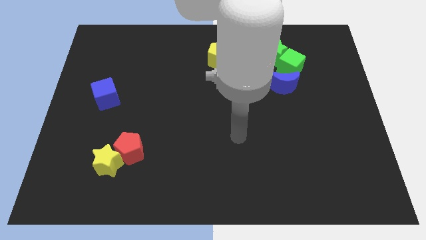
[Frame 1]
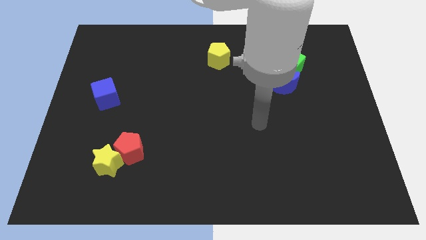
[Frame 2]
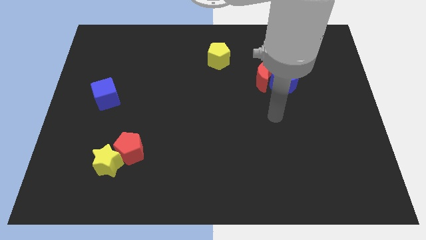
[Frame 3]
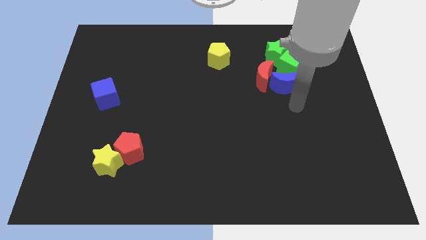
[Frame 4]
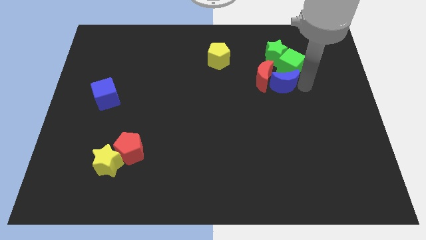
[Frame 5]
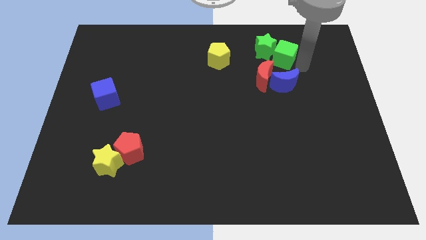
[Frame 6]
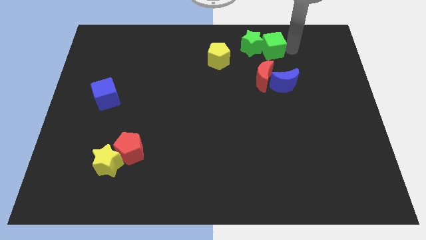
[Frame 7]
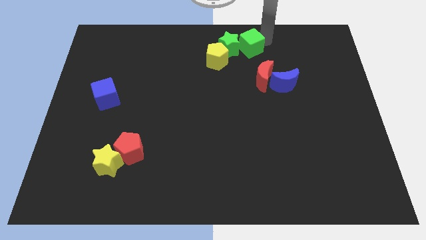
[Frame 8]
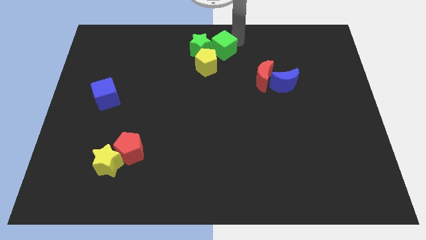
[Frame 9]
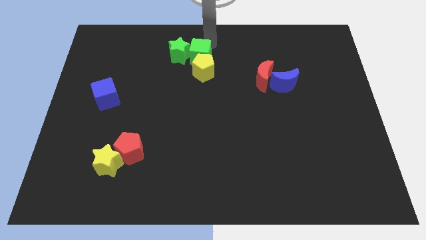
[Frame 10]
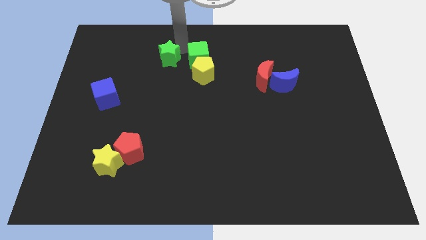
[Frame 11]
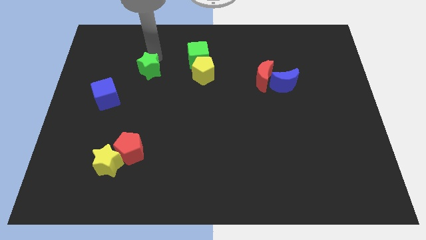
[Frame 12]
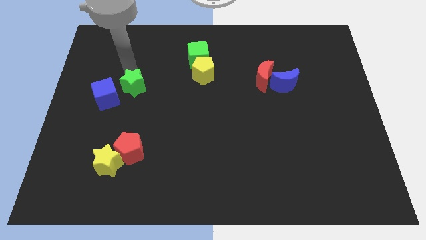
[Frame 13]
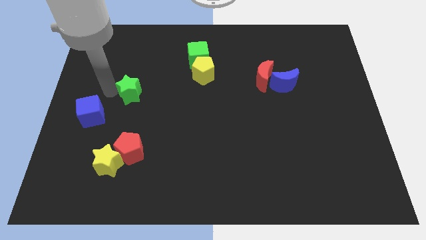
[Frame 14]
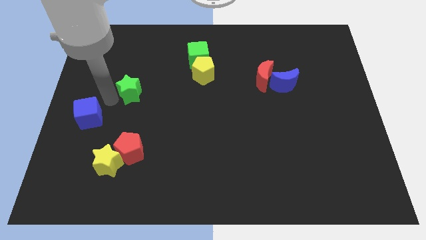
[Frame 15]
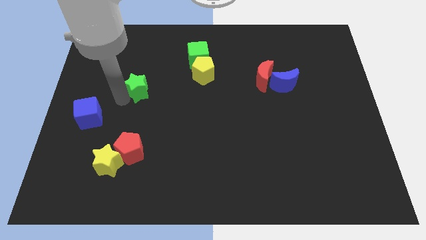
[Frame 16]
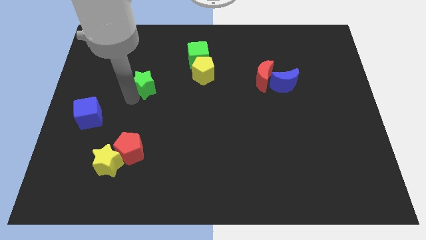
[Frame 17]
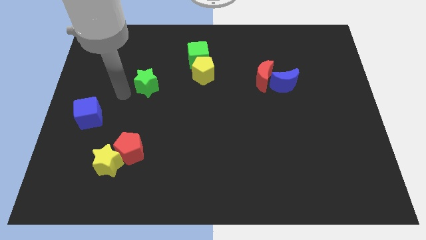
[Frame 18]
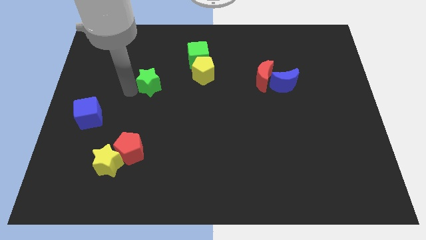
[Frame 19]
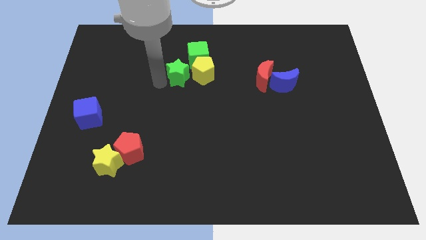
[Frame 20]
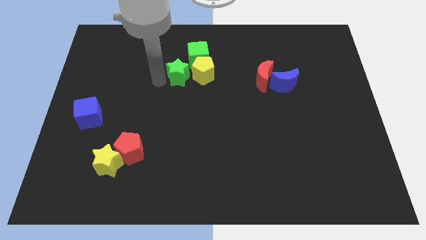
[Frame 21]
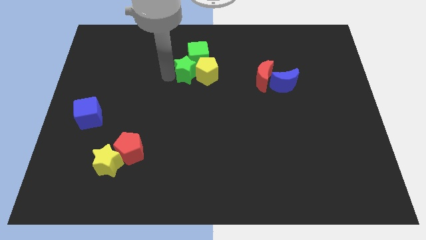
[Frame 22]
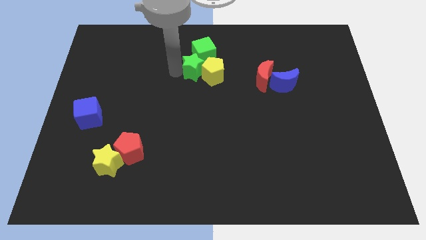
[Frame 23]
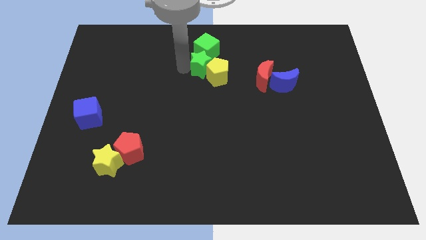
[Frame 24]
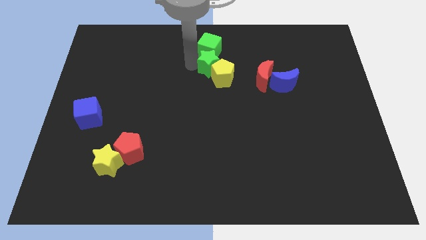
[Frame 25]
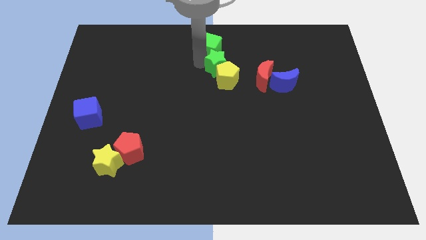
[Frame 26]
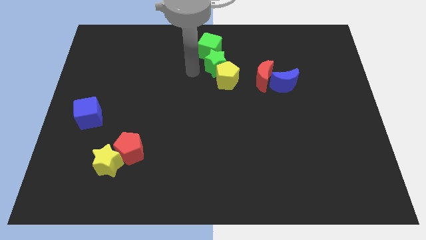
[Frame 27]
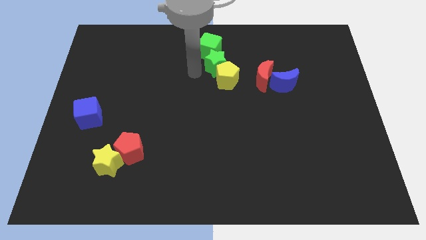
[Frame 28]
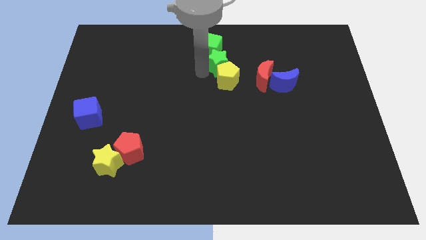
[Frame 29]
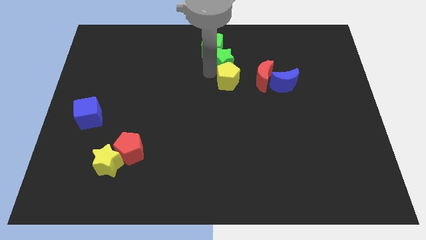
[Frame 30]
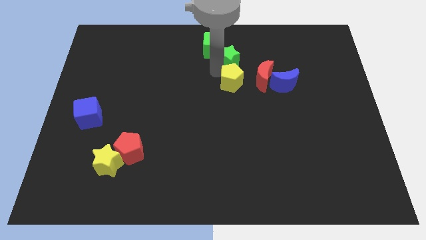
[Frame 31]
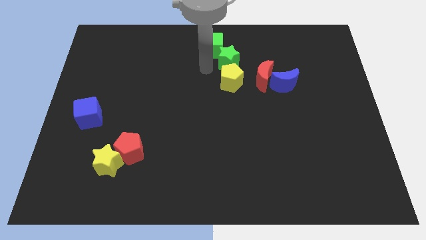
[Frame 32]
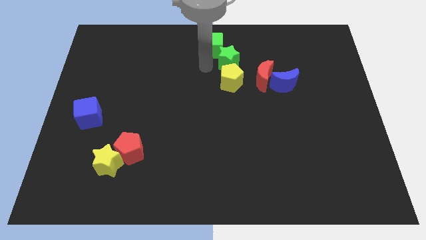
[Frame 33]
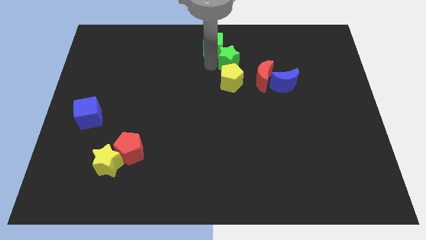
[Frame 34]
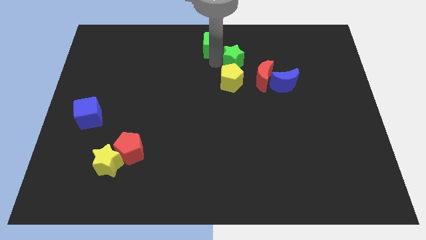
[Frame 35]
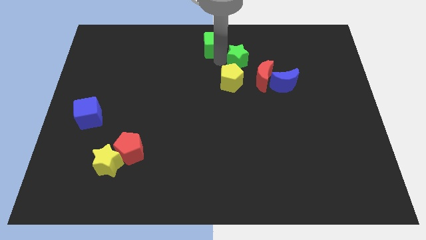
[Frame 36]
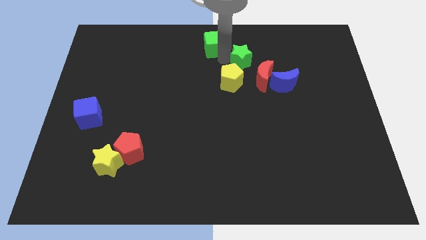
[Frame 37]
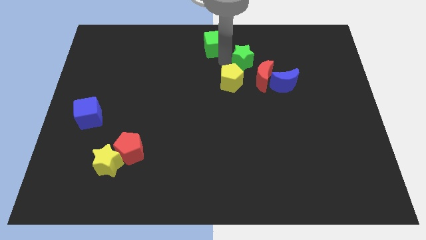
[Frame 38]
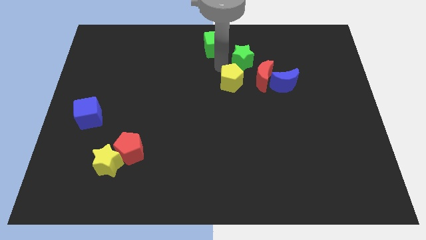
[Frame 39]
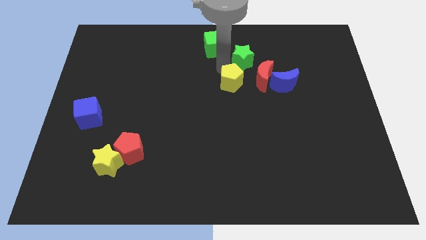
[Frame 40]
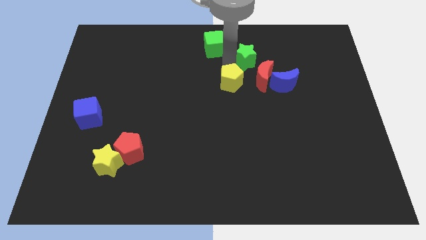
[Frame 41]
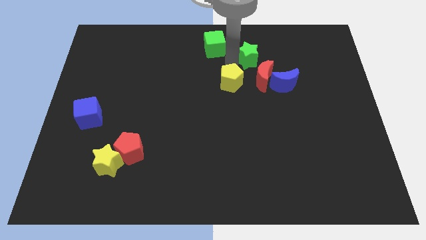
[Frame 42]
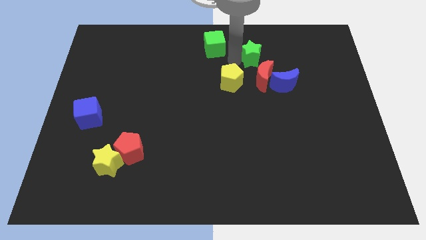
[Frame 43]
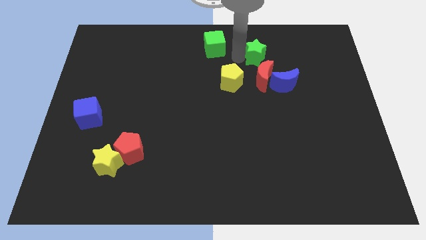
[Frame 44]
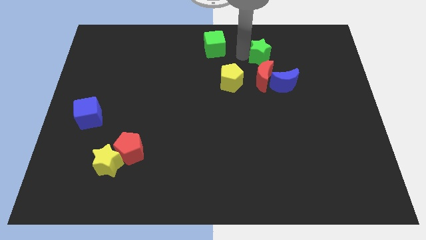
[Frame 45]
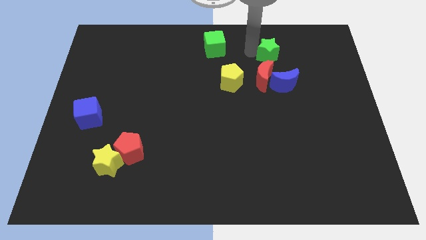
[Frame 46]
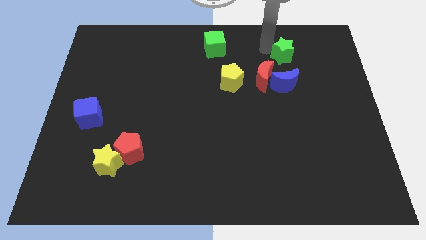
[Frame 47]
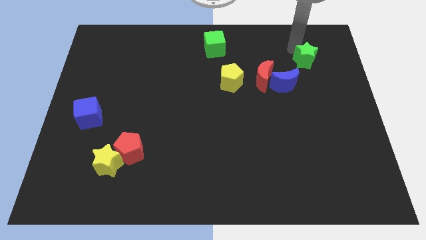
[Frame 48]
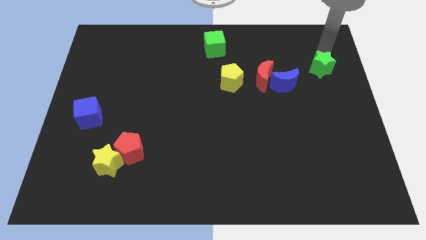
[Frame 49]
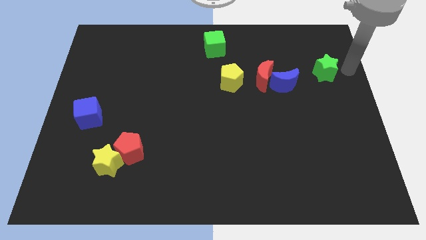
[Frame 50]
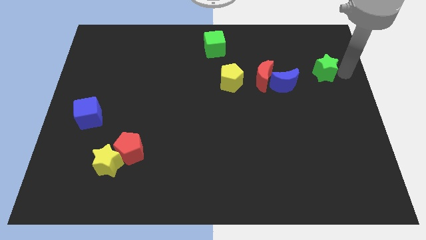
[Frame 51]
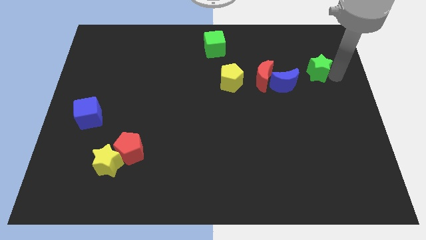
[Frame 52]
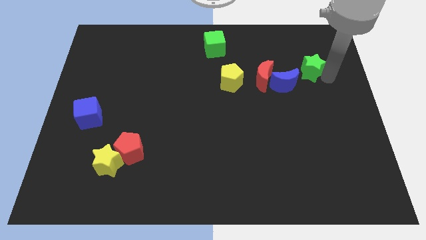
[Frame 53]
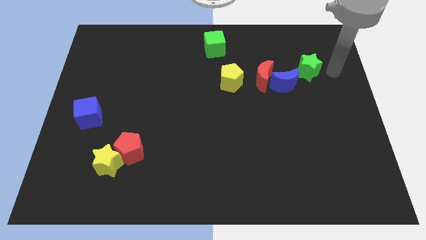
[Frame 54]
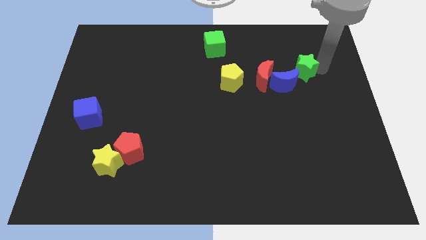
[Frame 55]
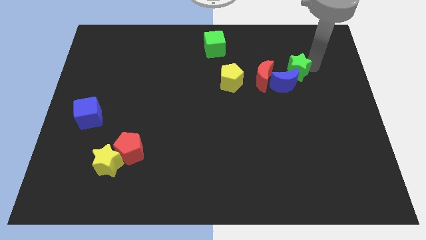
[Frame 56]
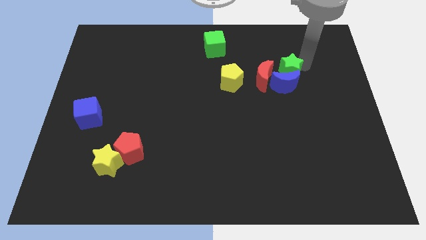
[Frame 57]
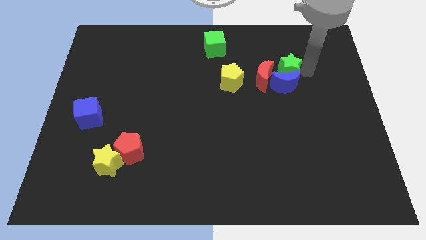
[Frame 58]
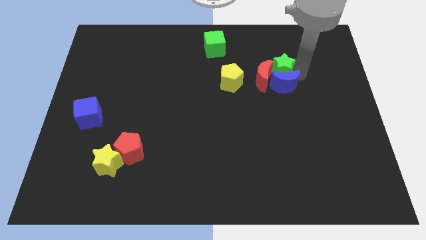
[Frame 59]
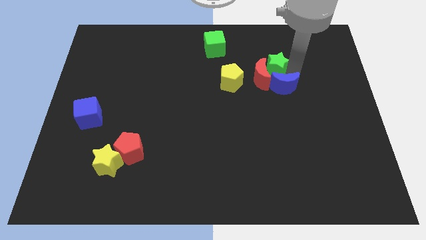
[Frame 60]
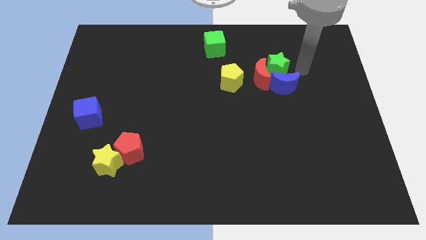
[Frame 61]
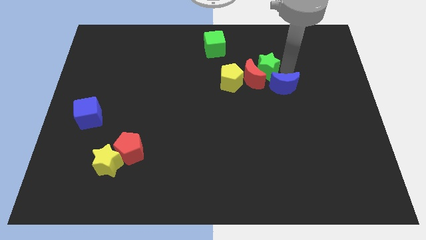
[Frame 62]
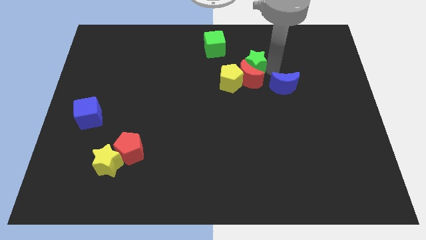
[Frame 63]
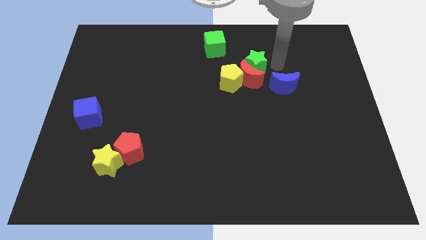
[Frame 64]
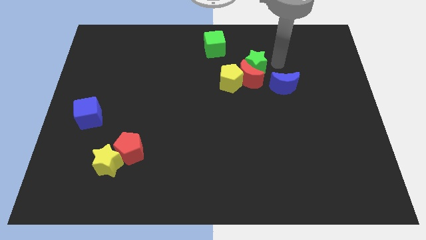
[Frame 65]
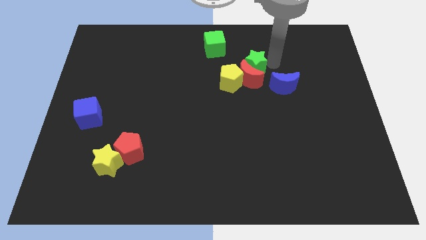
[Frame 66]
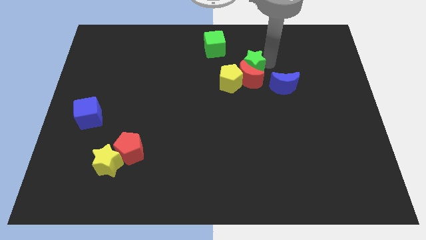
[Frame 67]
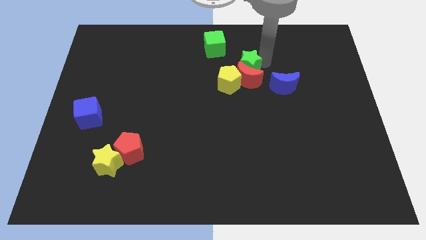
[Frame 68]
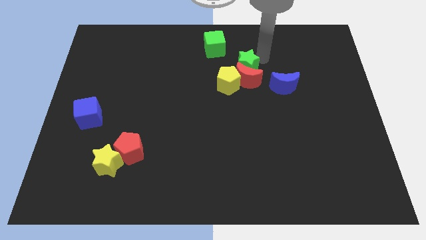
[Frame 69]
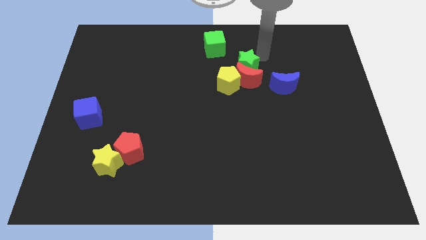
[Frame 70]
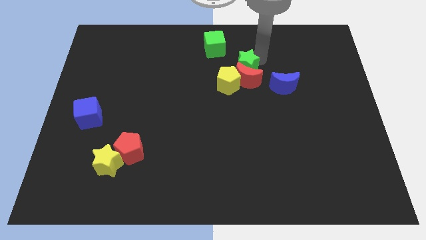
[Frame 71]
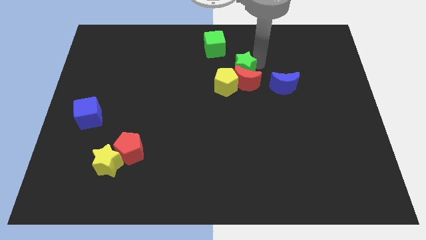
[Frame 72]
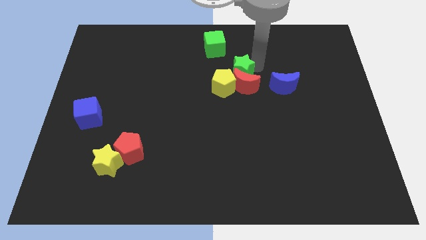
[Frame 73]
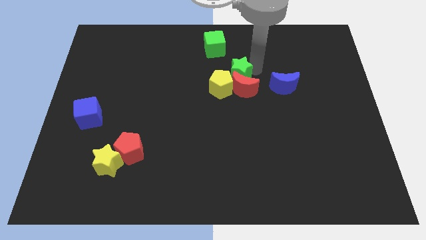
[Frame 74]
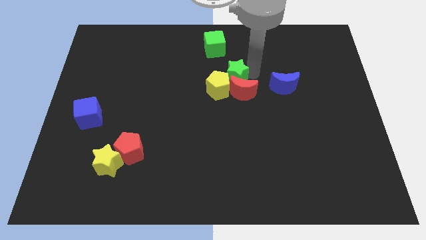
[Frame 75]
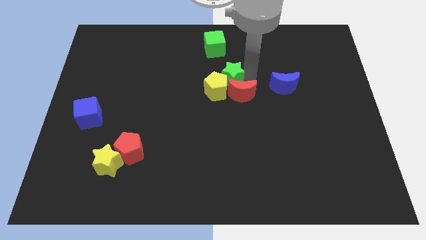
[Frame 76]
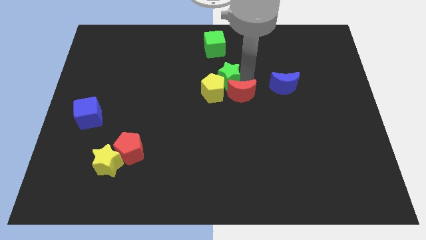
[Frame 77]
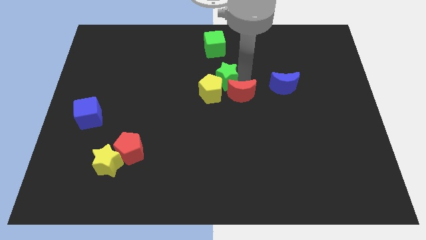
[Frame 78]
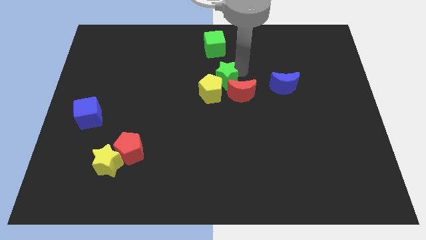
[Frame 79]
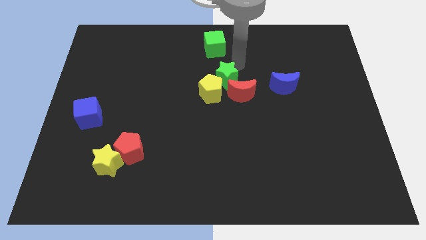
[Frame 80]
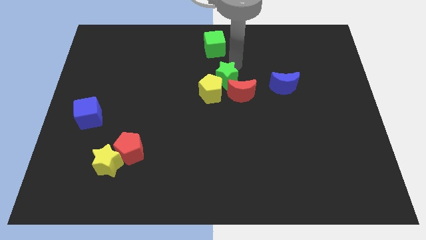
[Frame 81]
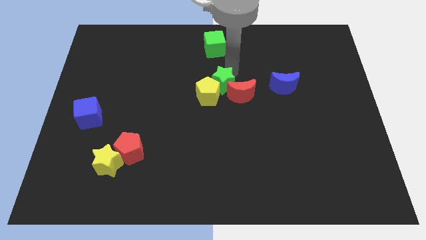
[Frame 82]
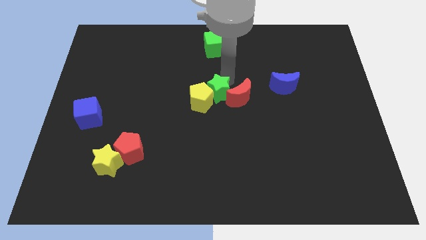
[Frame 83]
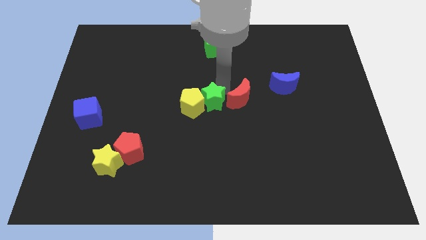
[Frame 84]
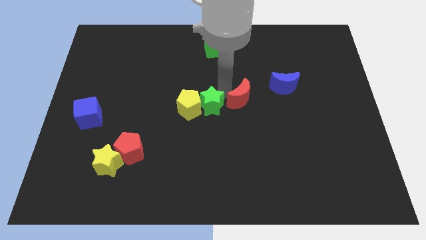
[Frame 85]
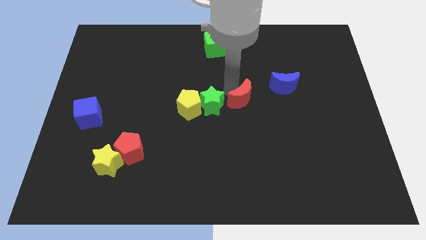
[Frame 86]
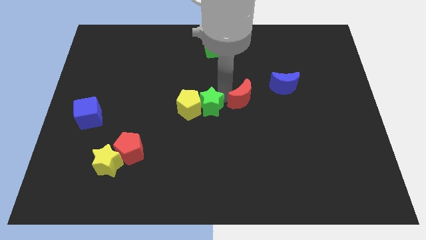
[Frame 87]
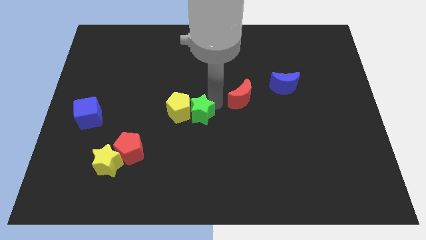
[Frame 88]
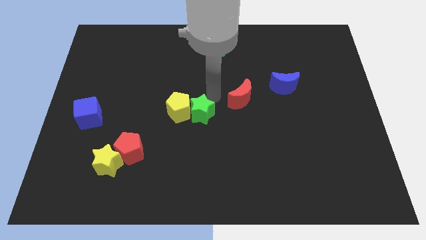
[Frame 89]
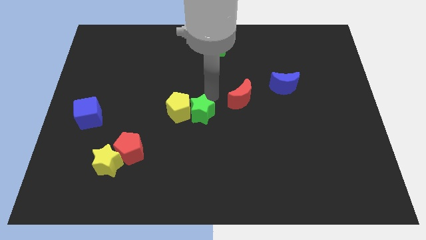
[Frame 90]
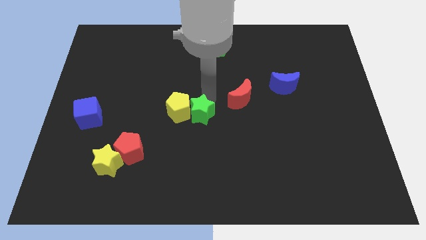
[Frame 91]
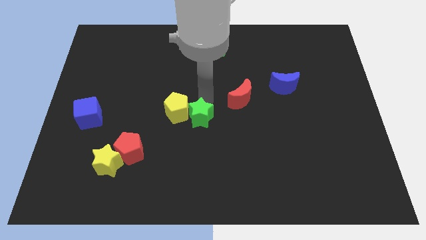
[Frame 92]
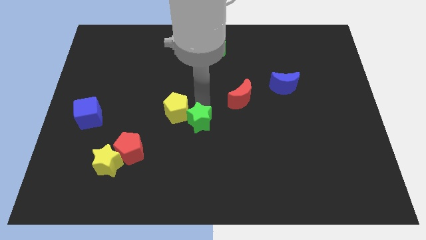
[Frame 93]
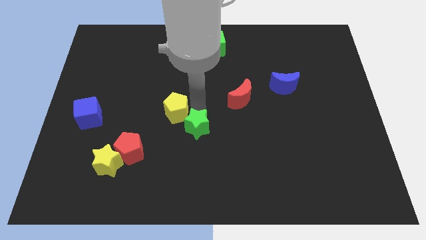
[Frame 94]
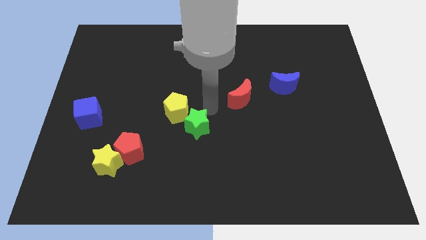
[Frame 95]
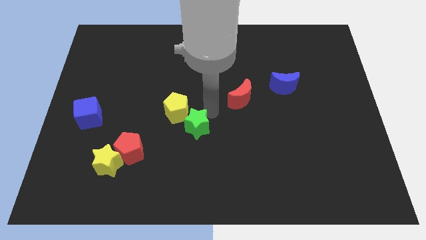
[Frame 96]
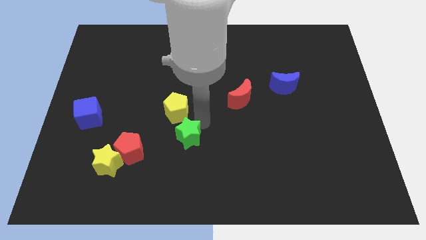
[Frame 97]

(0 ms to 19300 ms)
push the green star right of the red pentagon
